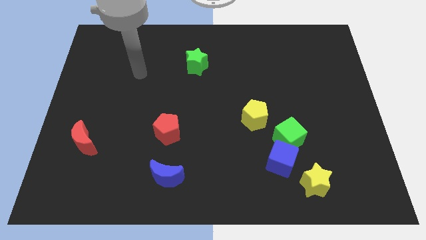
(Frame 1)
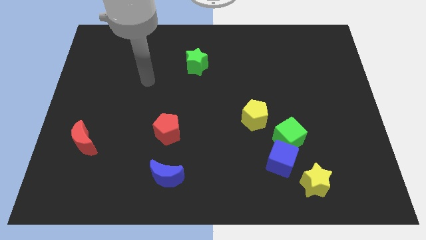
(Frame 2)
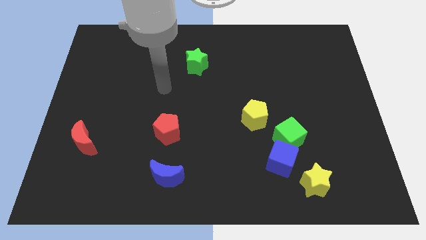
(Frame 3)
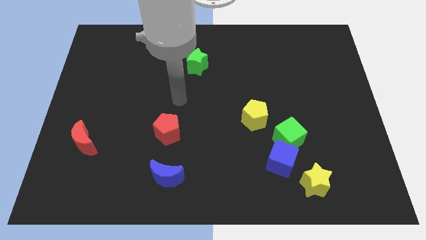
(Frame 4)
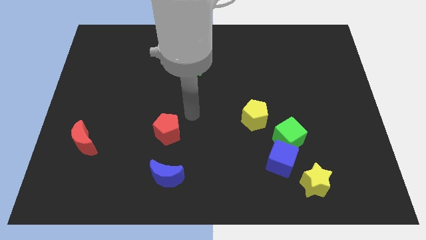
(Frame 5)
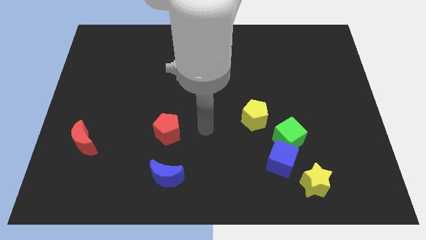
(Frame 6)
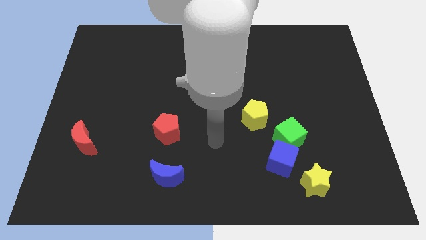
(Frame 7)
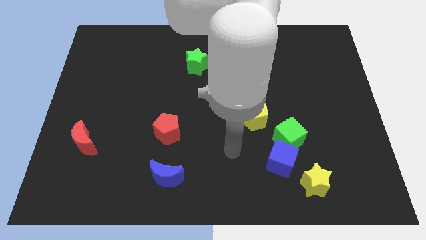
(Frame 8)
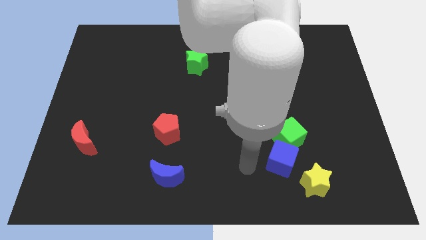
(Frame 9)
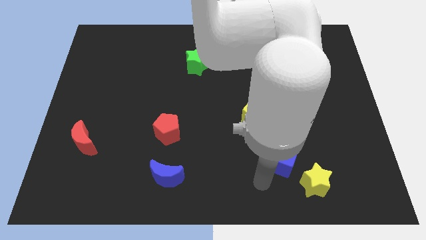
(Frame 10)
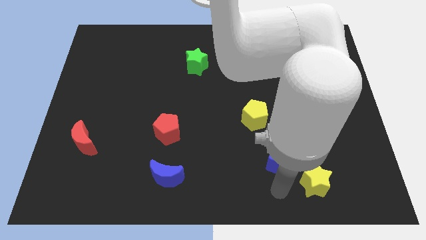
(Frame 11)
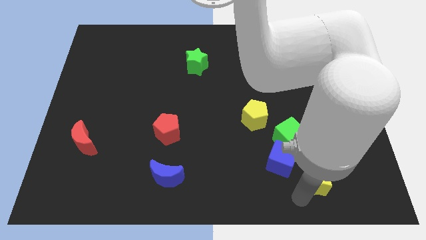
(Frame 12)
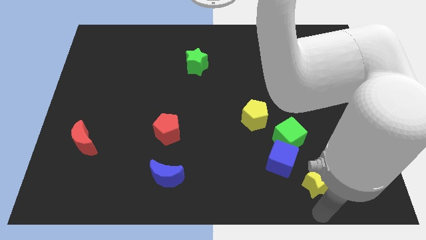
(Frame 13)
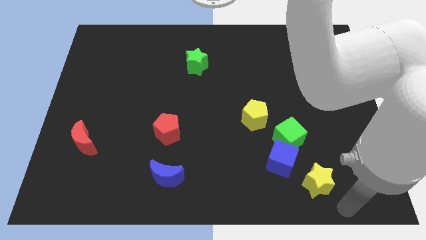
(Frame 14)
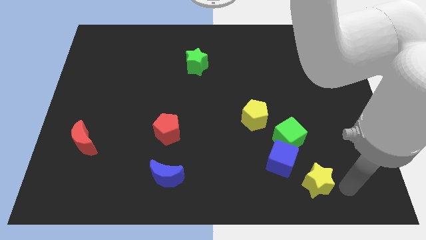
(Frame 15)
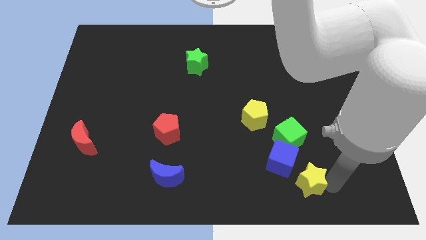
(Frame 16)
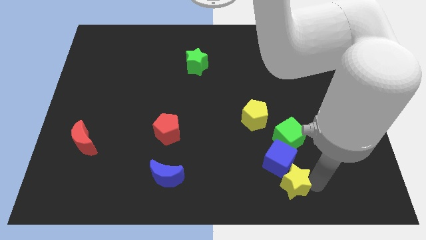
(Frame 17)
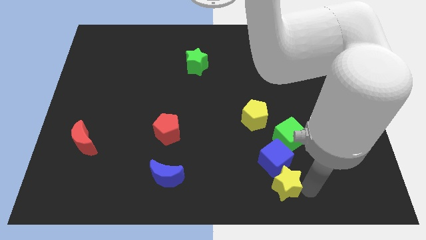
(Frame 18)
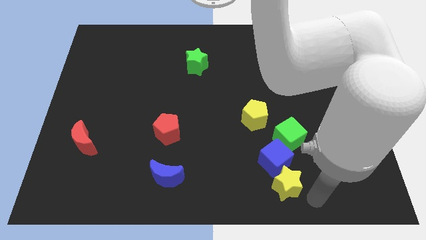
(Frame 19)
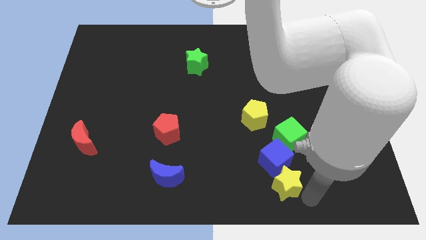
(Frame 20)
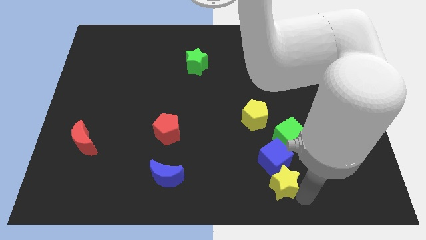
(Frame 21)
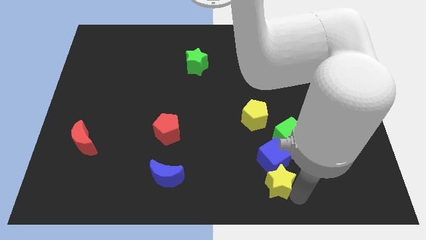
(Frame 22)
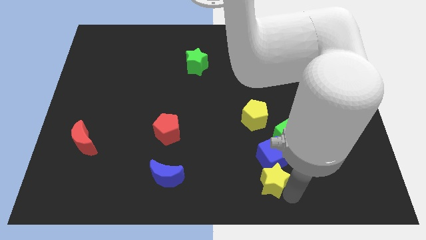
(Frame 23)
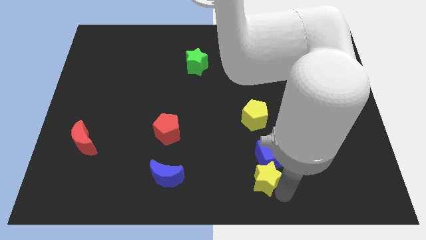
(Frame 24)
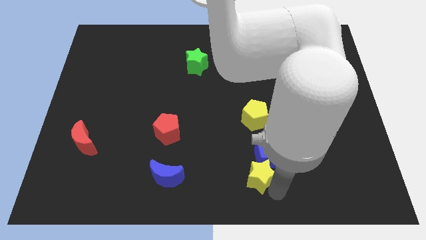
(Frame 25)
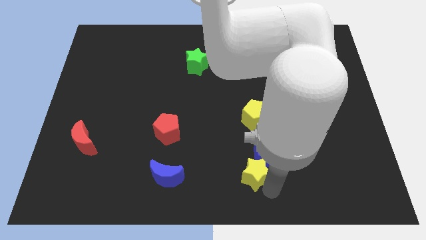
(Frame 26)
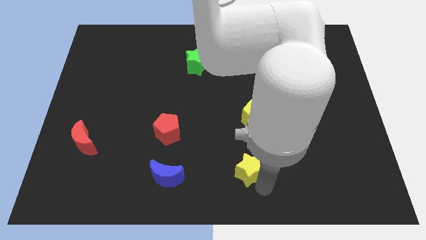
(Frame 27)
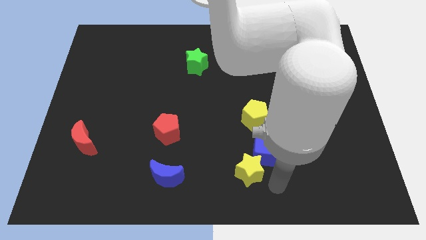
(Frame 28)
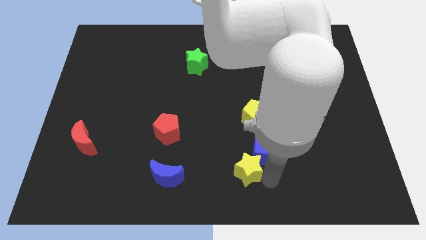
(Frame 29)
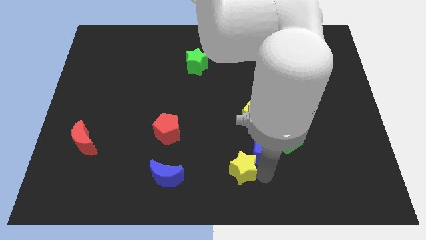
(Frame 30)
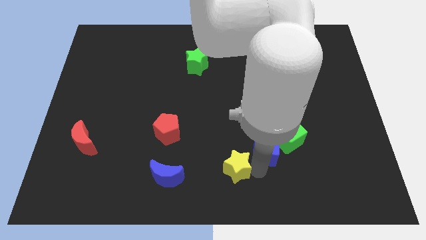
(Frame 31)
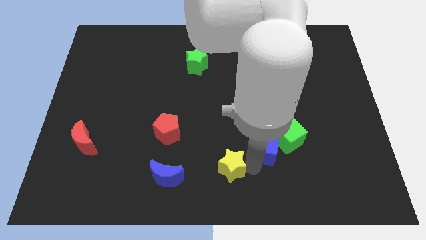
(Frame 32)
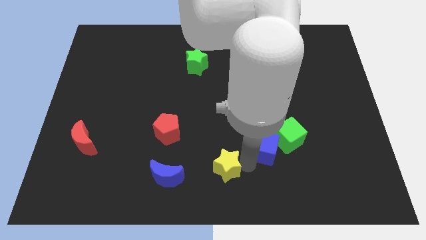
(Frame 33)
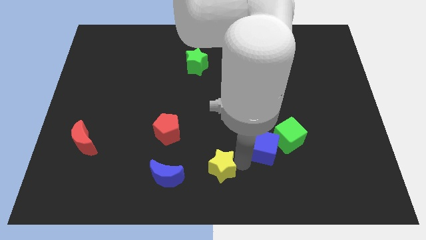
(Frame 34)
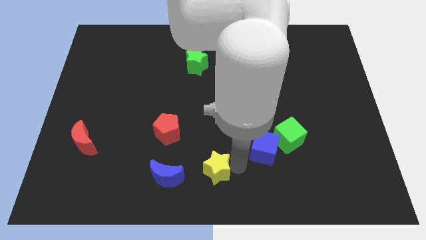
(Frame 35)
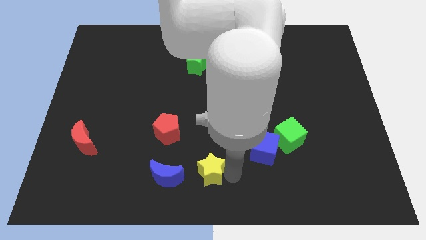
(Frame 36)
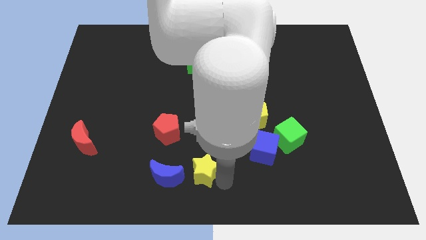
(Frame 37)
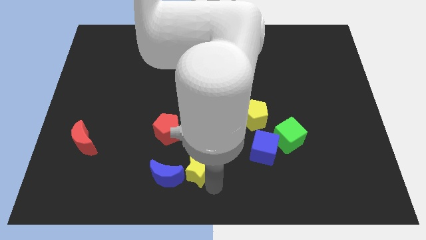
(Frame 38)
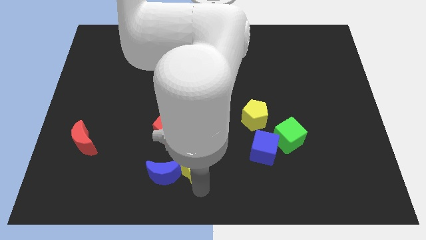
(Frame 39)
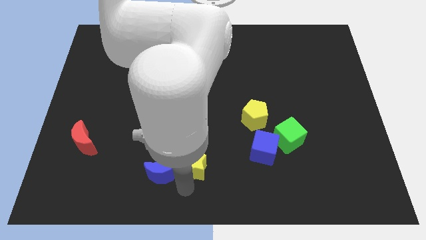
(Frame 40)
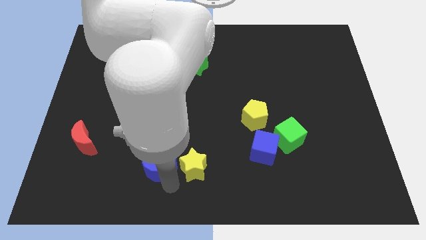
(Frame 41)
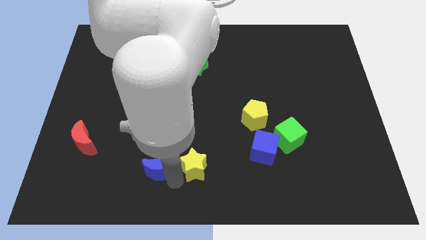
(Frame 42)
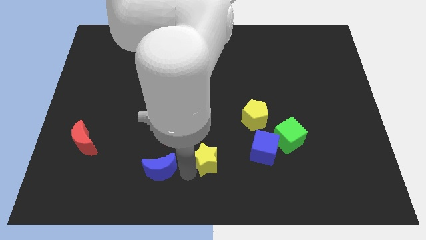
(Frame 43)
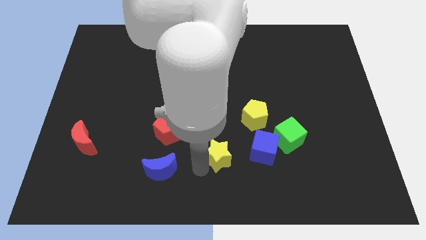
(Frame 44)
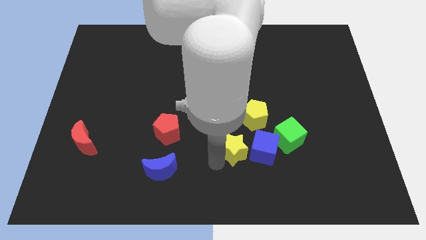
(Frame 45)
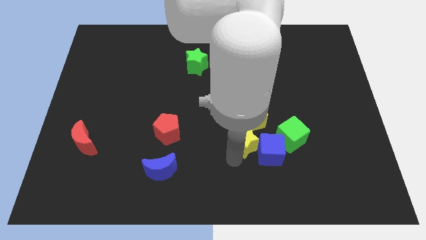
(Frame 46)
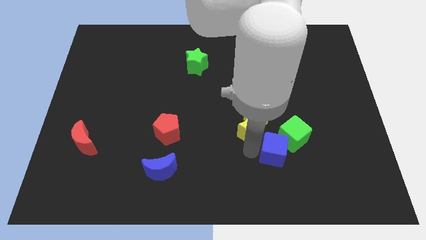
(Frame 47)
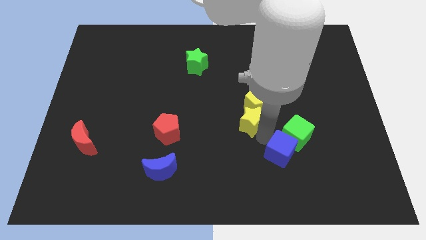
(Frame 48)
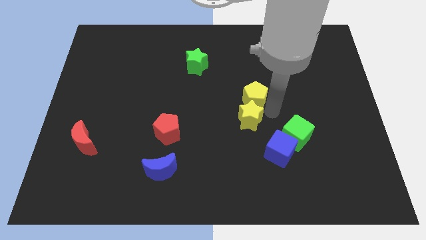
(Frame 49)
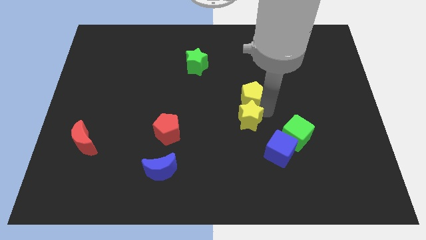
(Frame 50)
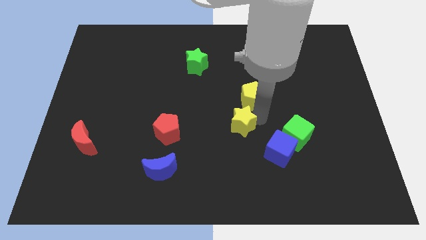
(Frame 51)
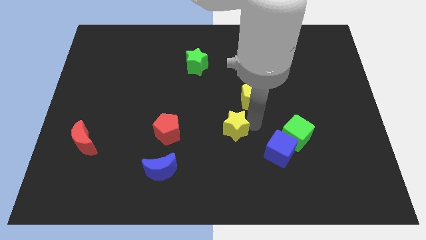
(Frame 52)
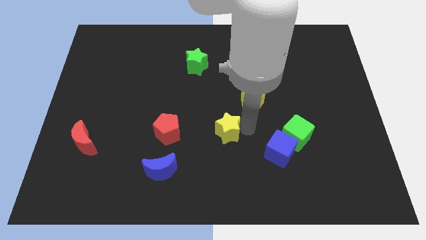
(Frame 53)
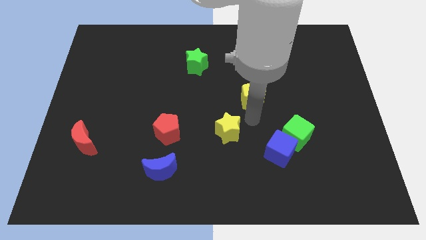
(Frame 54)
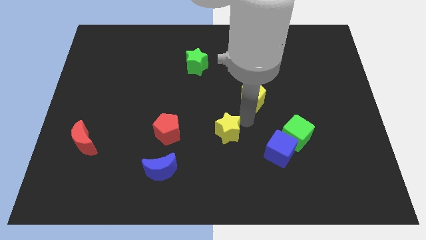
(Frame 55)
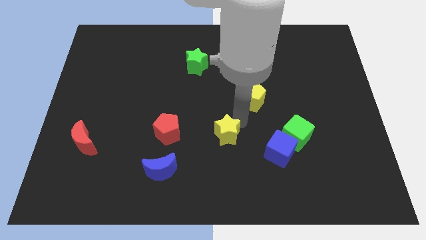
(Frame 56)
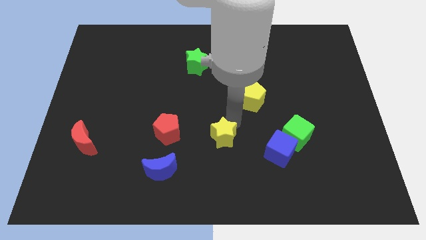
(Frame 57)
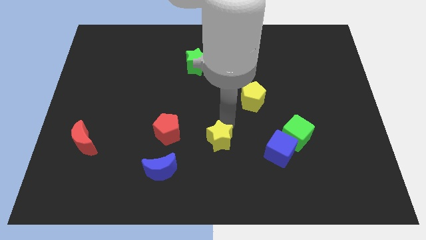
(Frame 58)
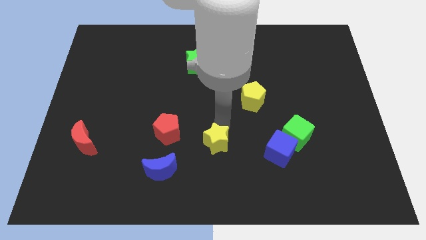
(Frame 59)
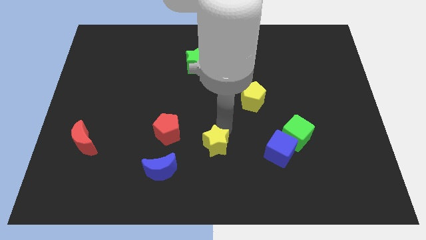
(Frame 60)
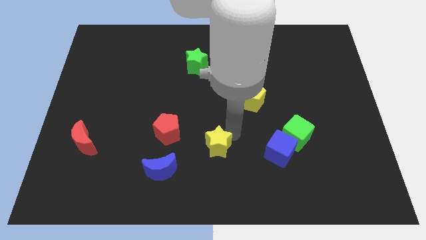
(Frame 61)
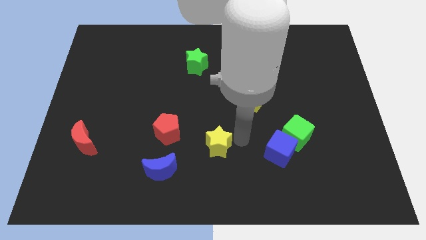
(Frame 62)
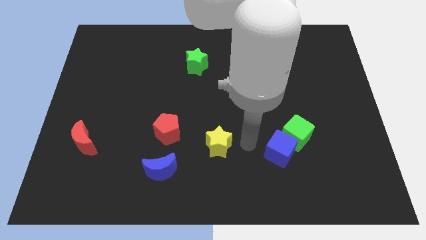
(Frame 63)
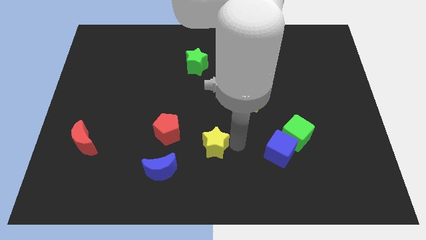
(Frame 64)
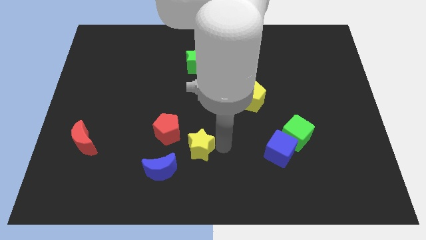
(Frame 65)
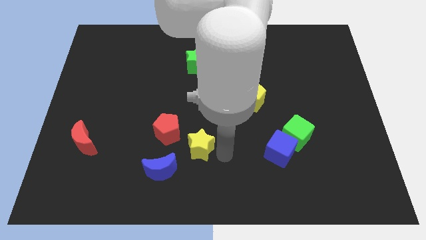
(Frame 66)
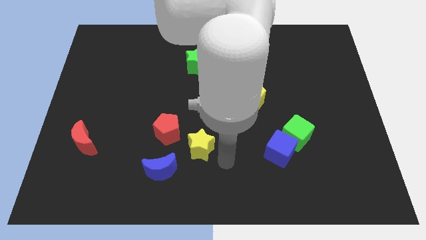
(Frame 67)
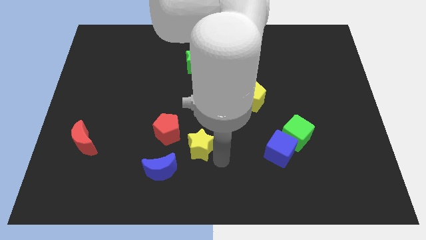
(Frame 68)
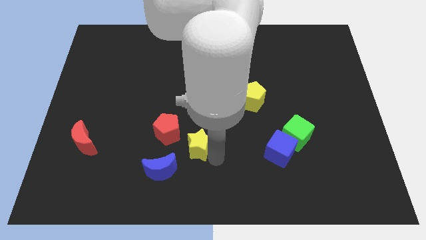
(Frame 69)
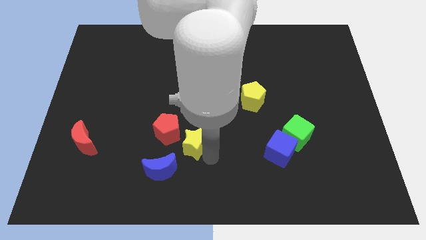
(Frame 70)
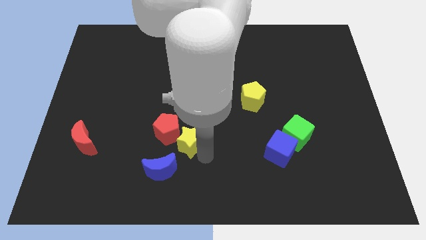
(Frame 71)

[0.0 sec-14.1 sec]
push the yellow star close to the red pentagon
